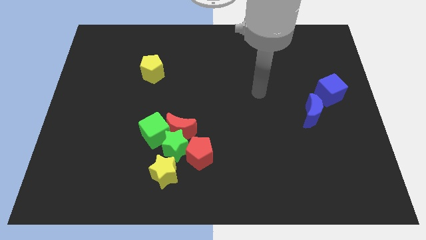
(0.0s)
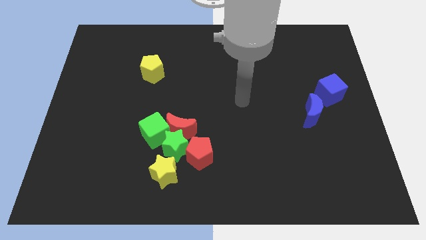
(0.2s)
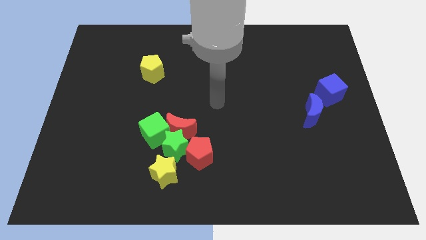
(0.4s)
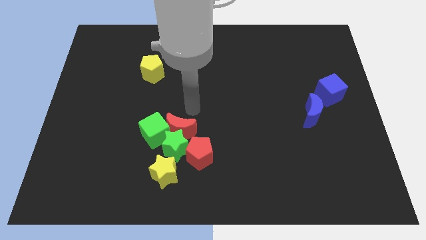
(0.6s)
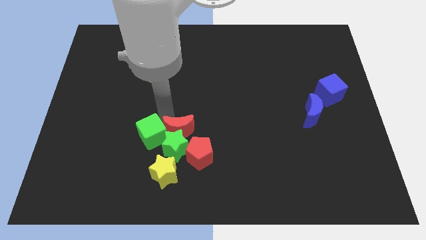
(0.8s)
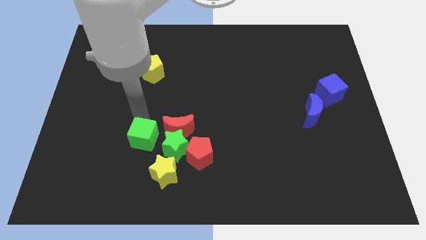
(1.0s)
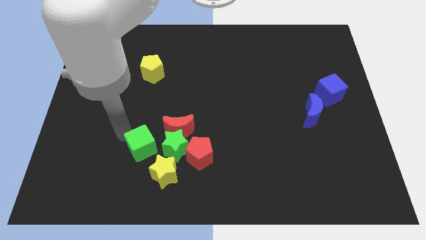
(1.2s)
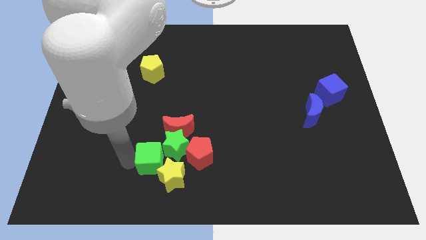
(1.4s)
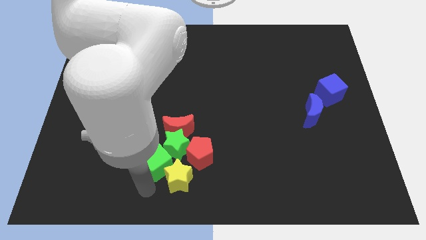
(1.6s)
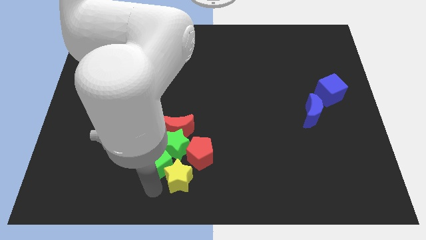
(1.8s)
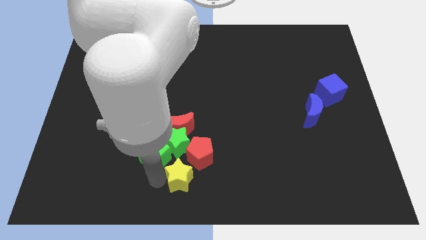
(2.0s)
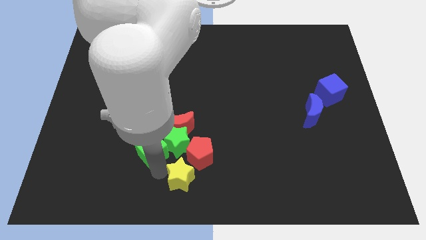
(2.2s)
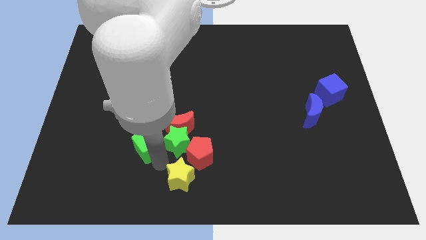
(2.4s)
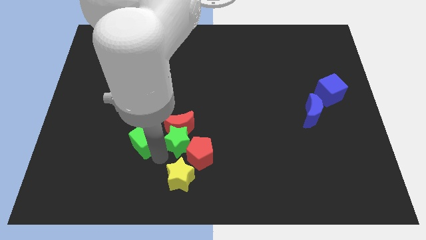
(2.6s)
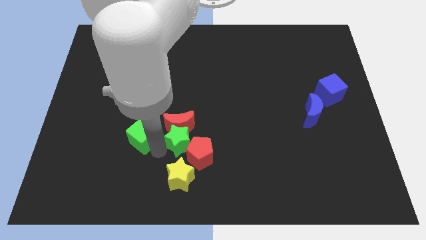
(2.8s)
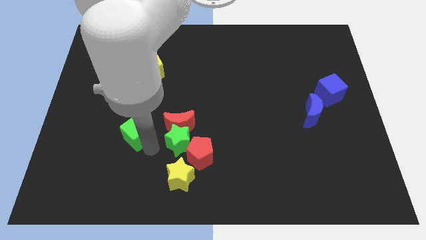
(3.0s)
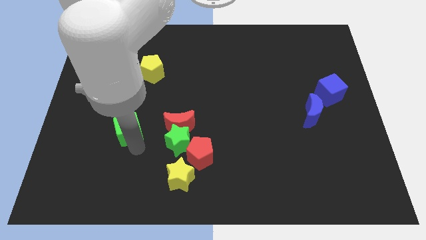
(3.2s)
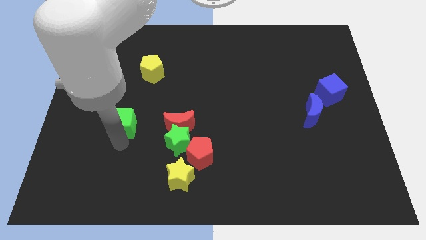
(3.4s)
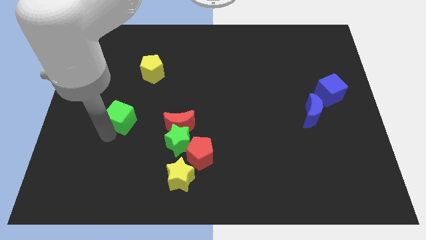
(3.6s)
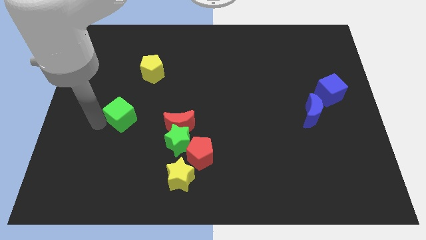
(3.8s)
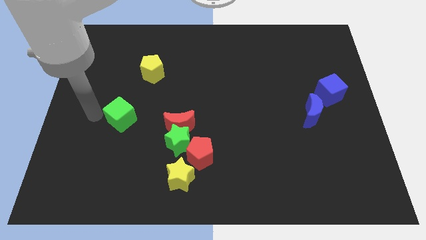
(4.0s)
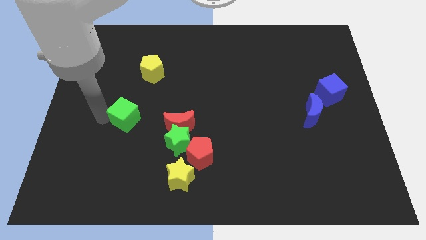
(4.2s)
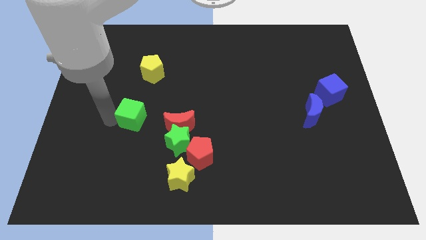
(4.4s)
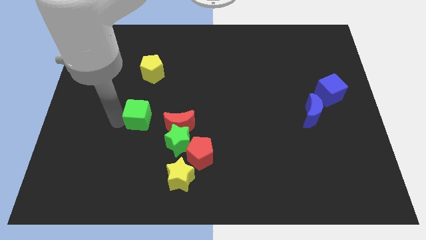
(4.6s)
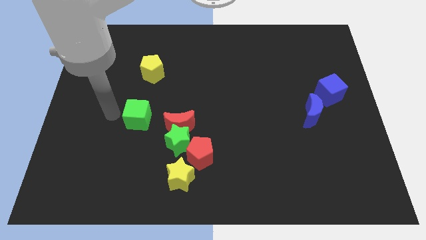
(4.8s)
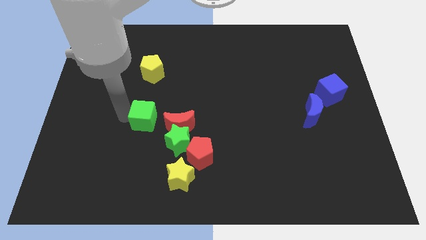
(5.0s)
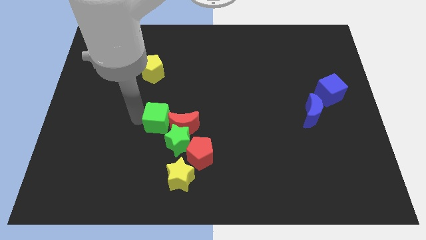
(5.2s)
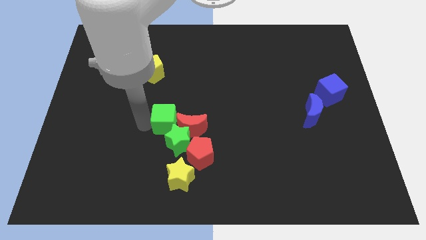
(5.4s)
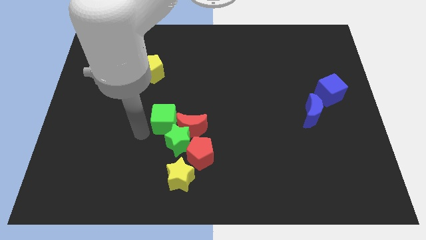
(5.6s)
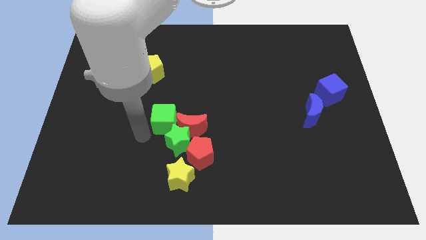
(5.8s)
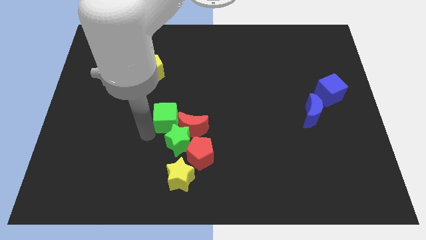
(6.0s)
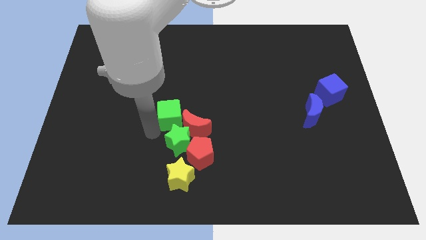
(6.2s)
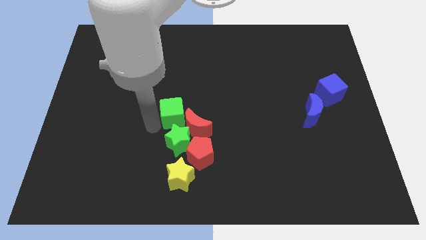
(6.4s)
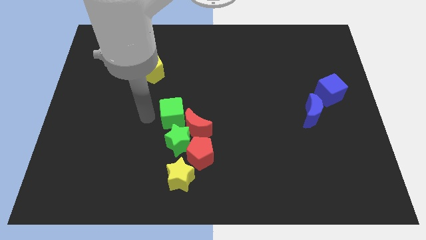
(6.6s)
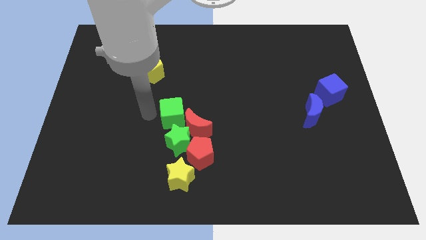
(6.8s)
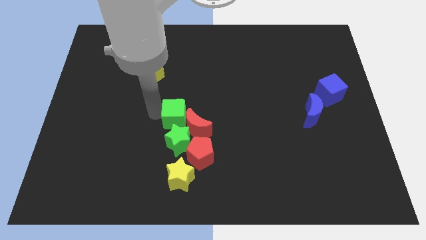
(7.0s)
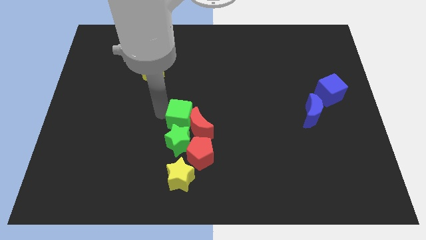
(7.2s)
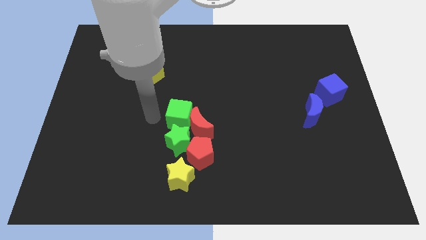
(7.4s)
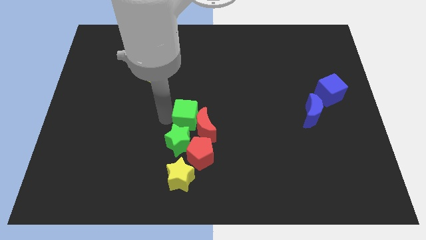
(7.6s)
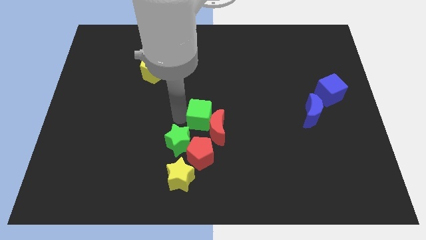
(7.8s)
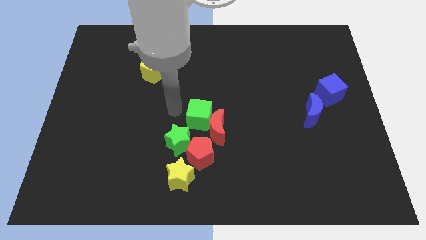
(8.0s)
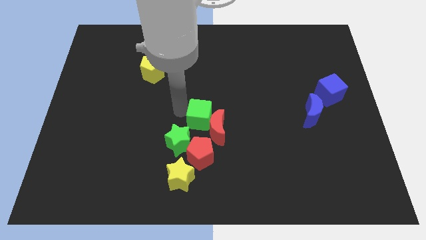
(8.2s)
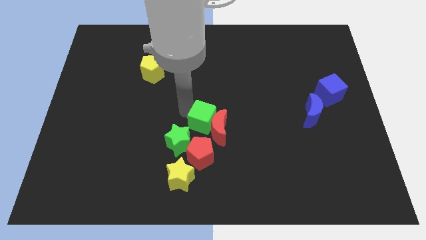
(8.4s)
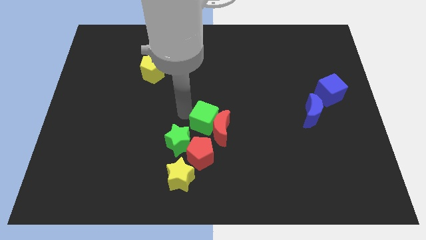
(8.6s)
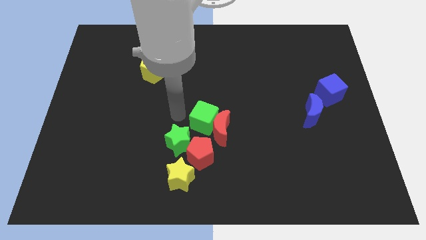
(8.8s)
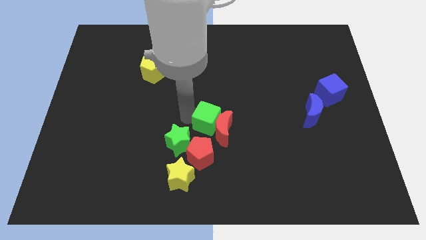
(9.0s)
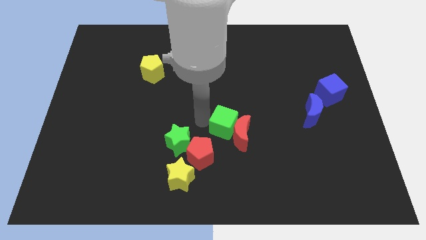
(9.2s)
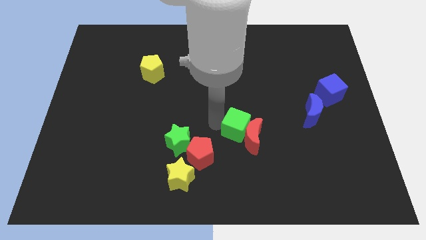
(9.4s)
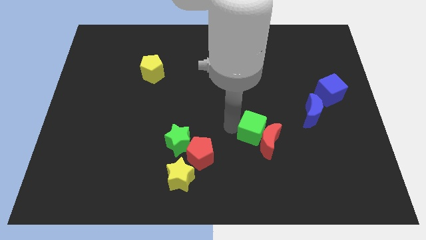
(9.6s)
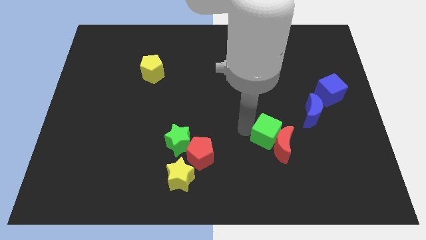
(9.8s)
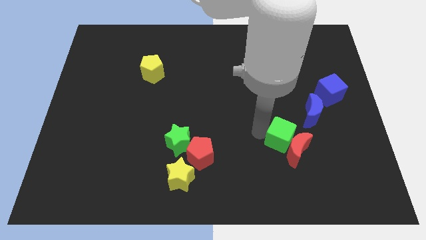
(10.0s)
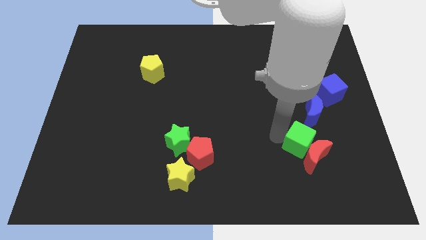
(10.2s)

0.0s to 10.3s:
push the green cube below the blue moon

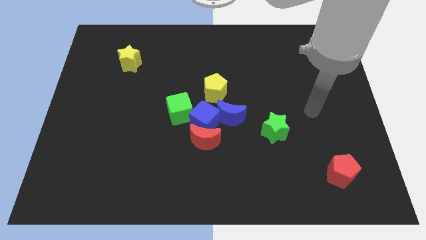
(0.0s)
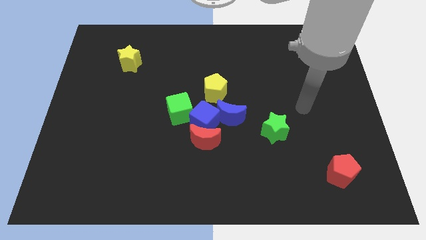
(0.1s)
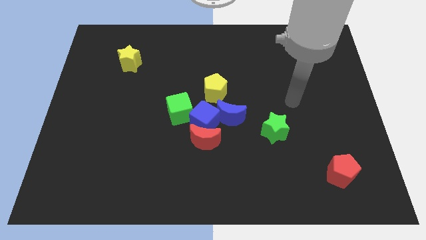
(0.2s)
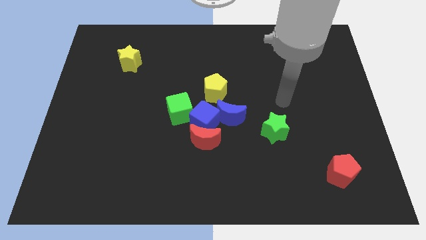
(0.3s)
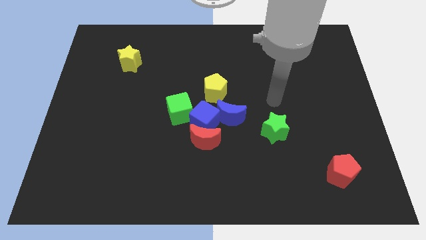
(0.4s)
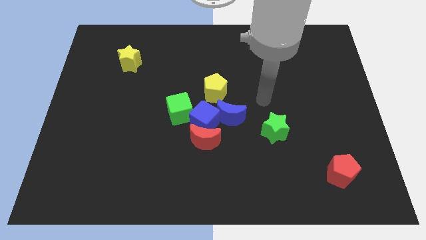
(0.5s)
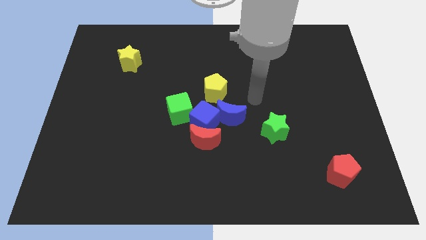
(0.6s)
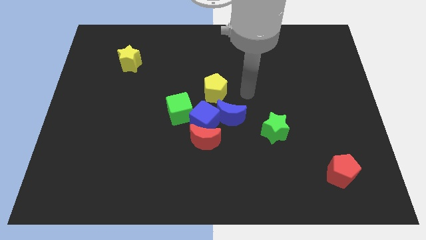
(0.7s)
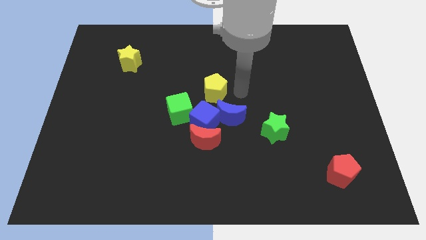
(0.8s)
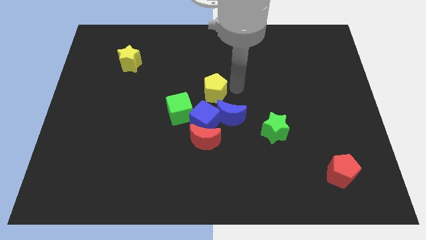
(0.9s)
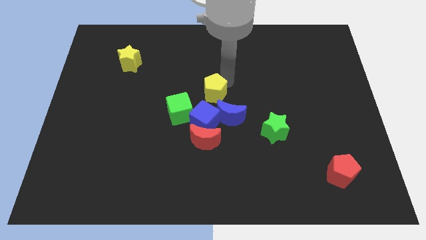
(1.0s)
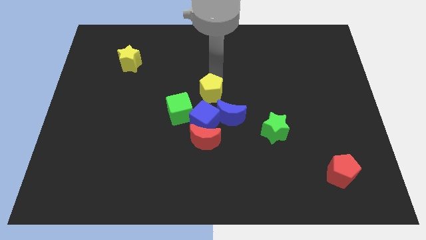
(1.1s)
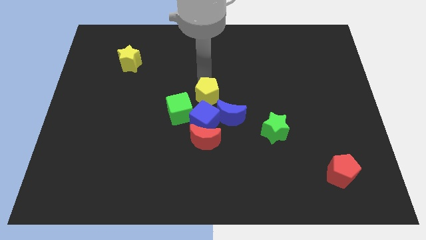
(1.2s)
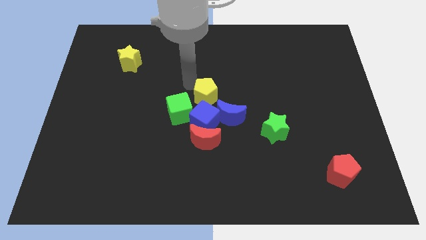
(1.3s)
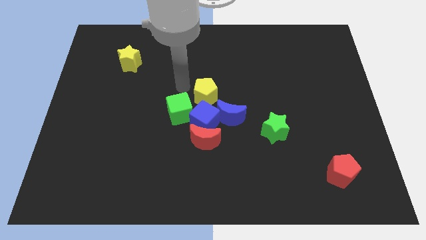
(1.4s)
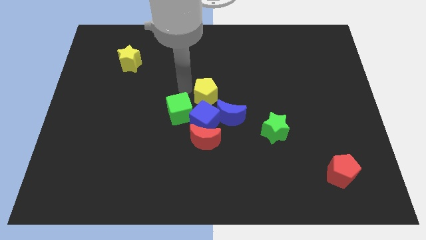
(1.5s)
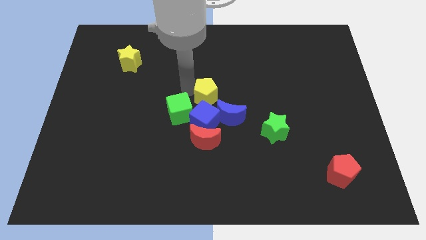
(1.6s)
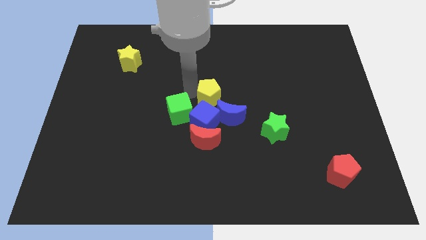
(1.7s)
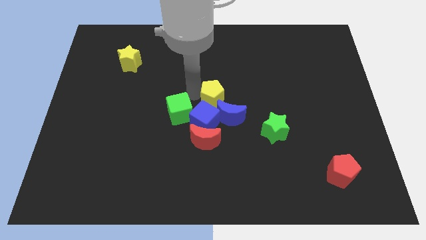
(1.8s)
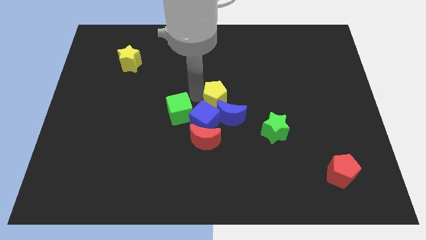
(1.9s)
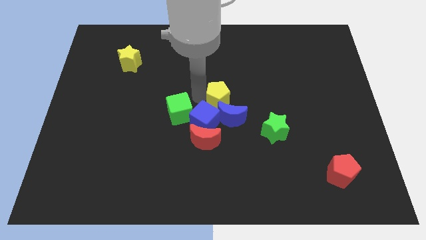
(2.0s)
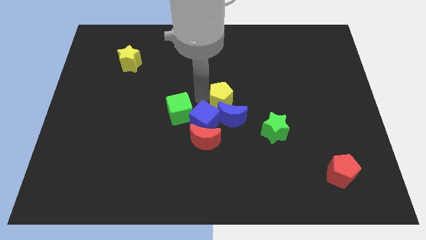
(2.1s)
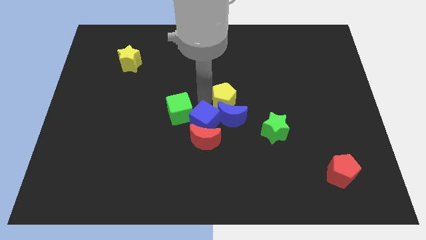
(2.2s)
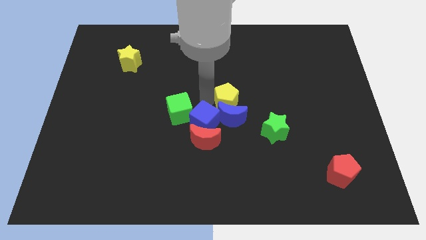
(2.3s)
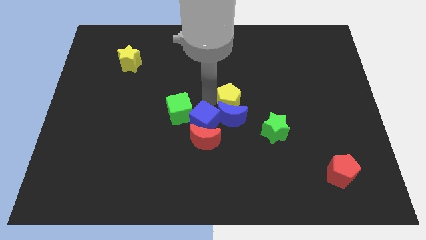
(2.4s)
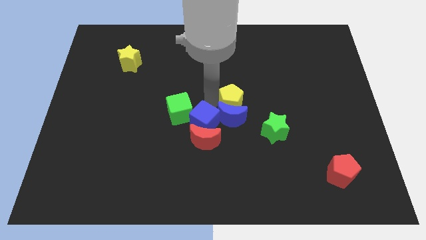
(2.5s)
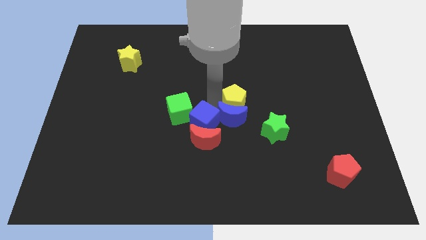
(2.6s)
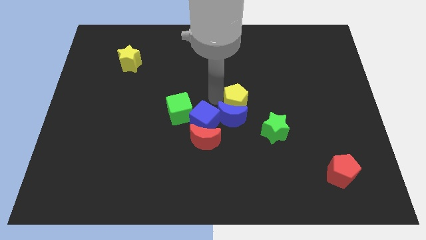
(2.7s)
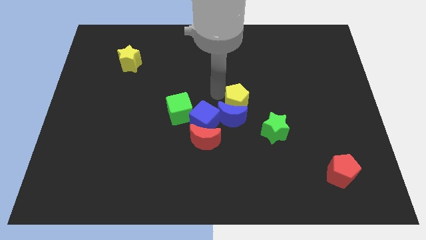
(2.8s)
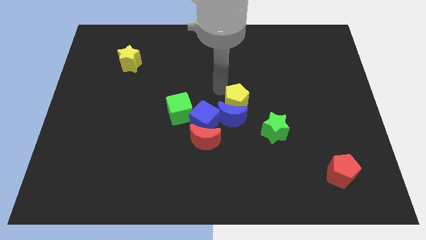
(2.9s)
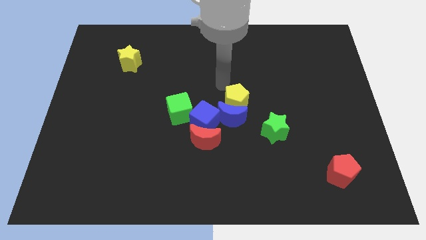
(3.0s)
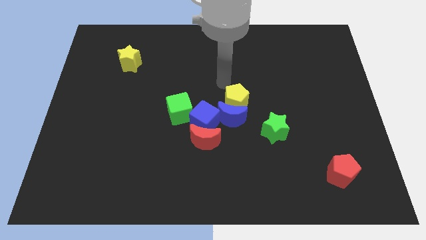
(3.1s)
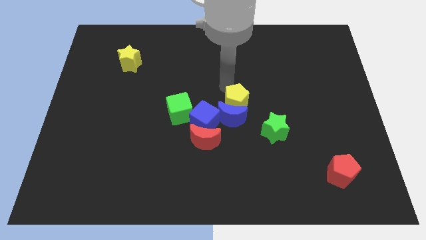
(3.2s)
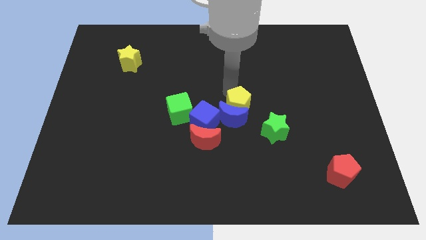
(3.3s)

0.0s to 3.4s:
put the yellow pentagon to the right of the blue cube
